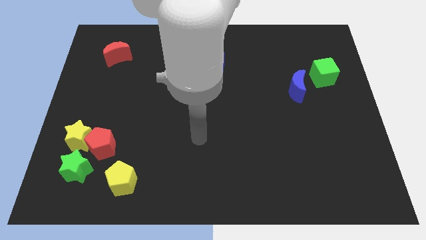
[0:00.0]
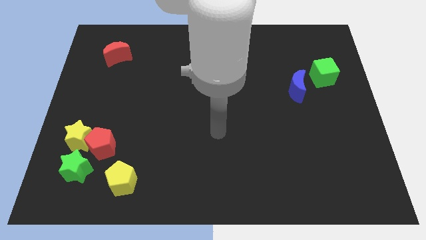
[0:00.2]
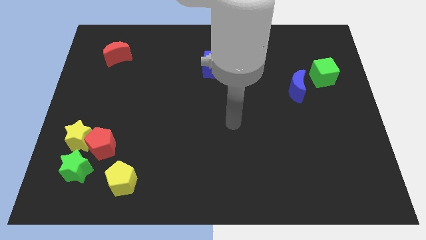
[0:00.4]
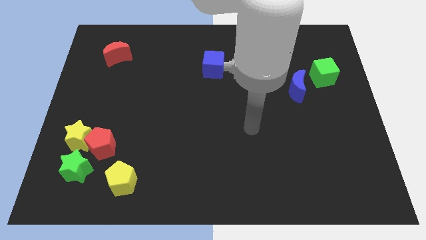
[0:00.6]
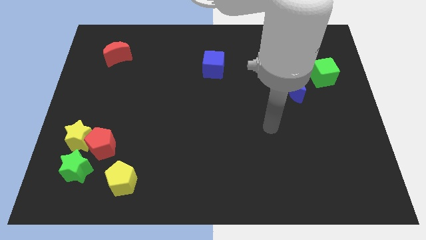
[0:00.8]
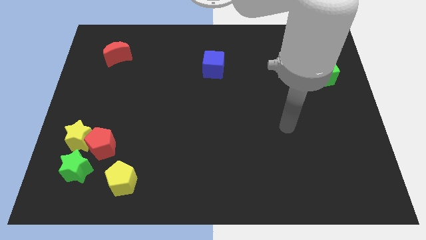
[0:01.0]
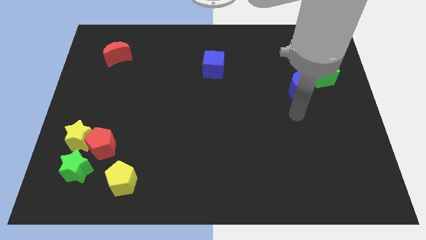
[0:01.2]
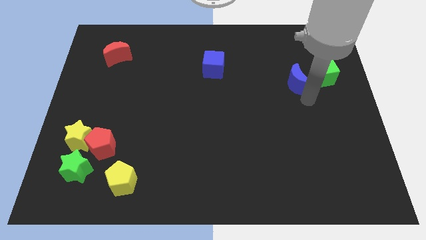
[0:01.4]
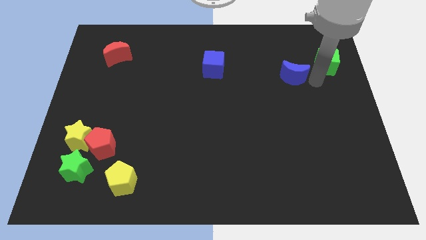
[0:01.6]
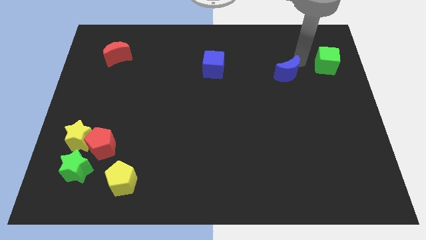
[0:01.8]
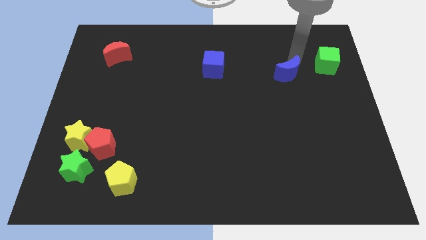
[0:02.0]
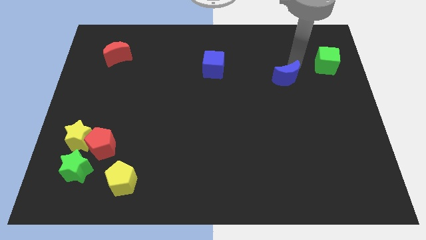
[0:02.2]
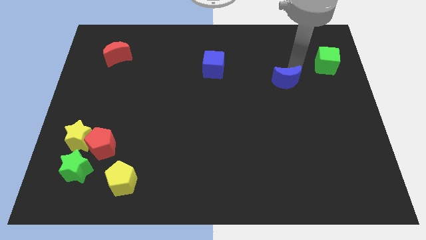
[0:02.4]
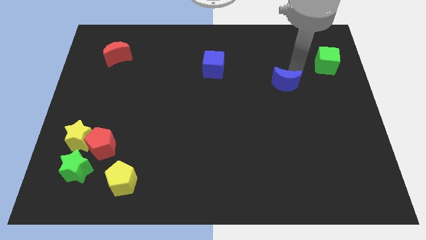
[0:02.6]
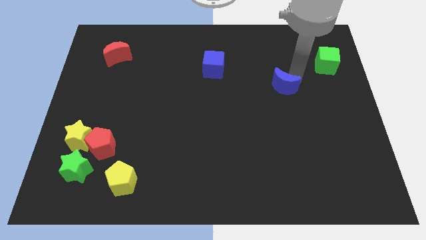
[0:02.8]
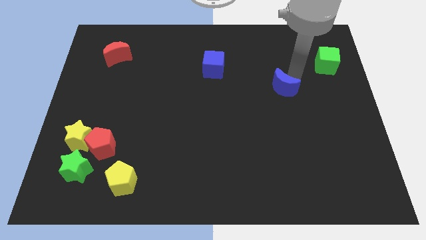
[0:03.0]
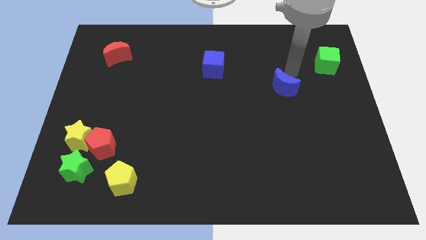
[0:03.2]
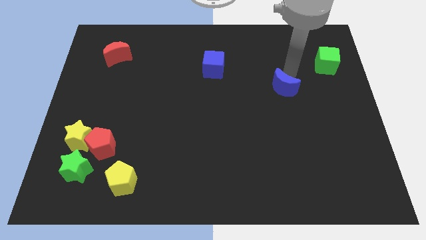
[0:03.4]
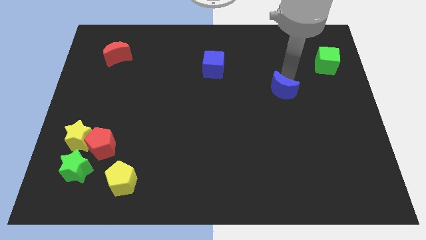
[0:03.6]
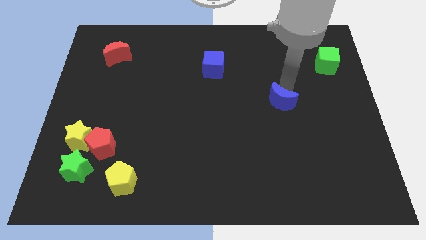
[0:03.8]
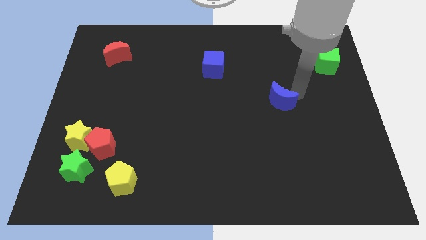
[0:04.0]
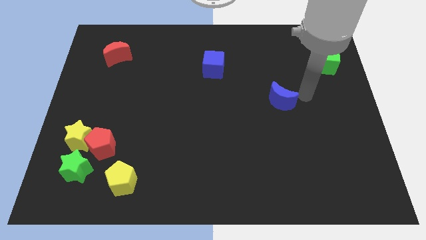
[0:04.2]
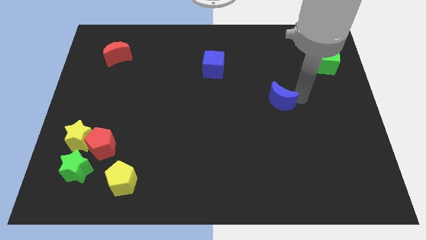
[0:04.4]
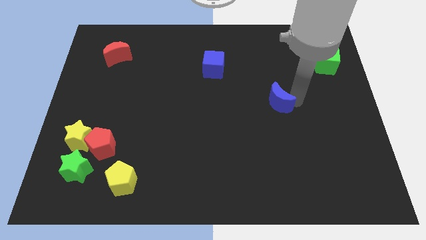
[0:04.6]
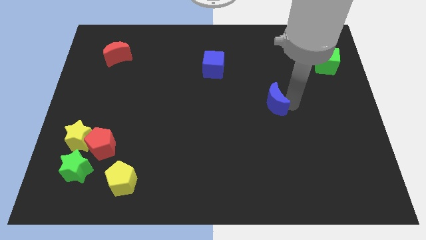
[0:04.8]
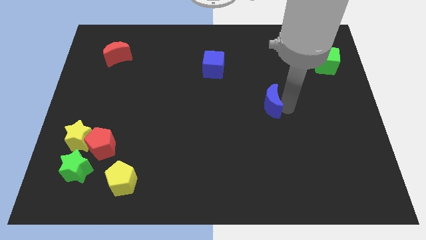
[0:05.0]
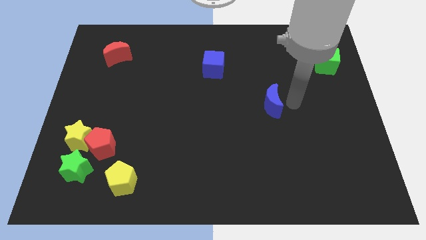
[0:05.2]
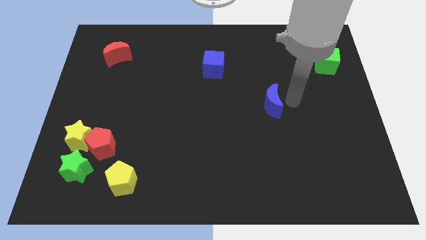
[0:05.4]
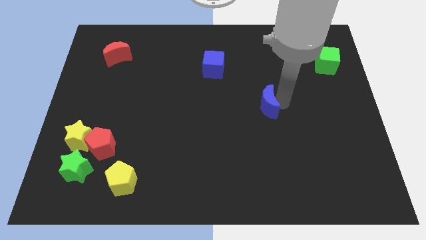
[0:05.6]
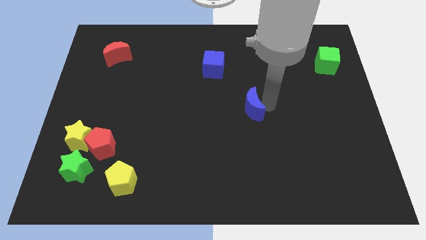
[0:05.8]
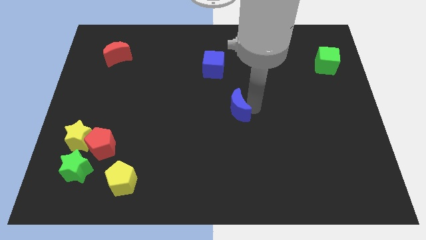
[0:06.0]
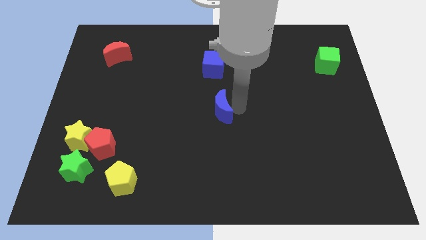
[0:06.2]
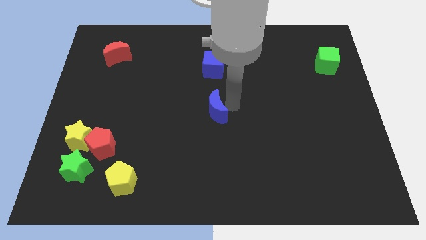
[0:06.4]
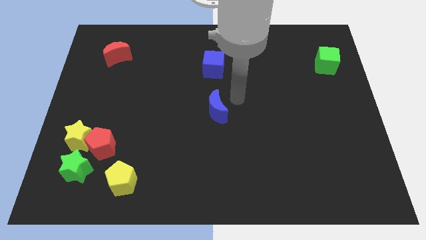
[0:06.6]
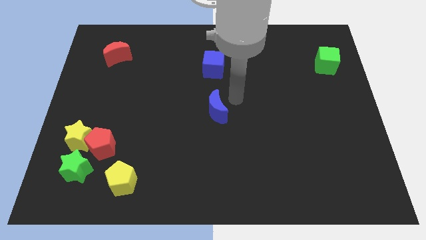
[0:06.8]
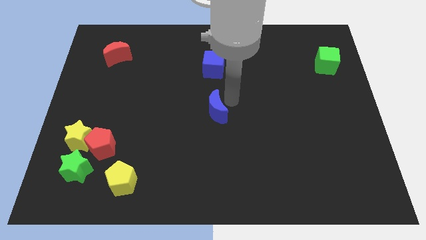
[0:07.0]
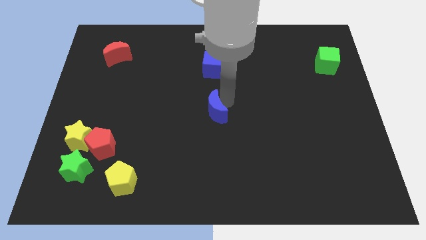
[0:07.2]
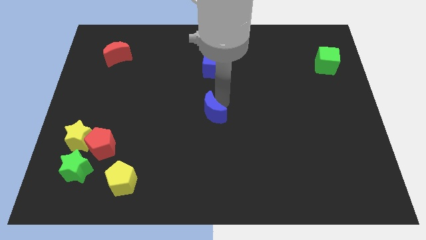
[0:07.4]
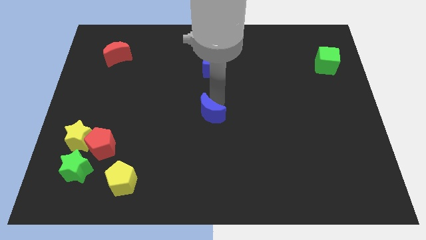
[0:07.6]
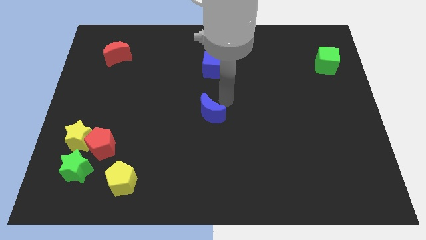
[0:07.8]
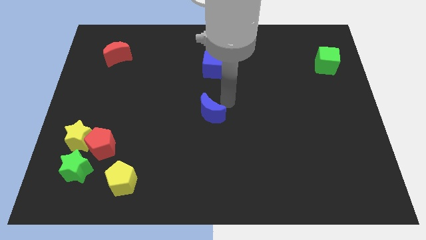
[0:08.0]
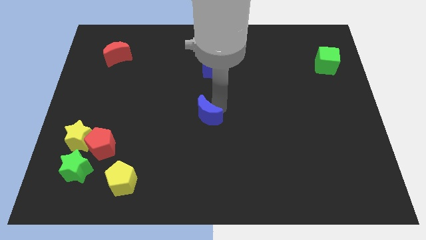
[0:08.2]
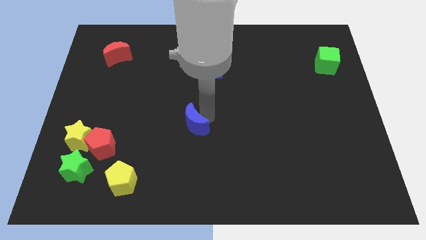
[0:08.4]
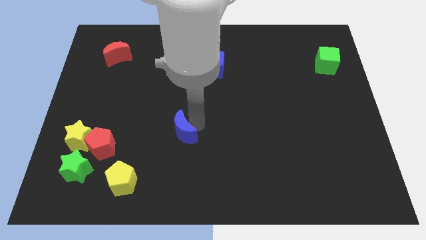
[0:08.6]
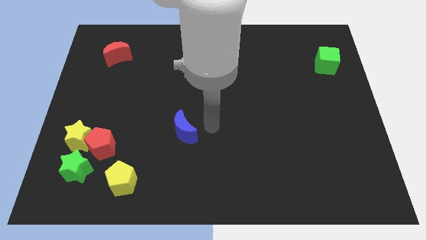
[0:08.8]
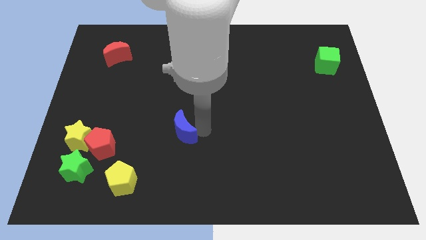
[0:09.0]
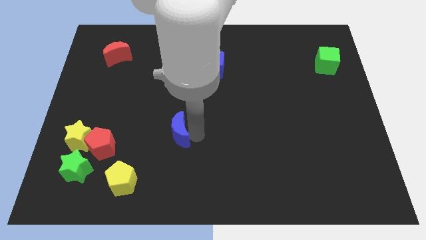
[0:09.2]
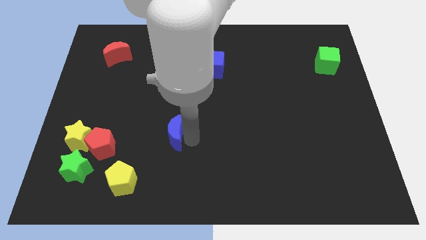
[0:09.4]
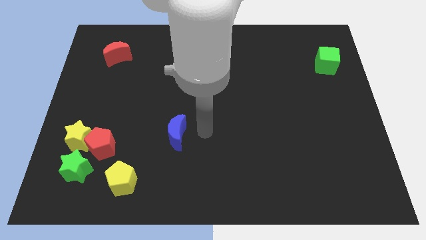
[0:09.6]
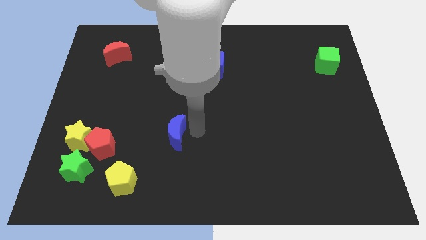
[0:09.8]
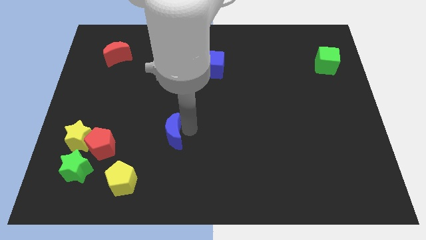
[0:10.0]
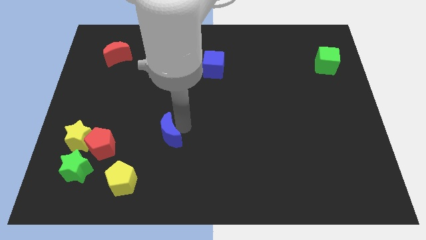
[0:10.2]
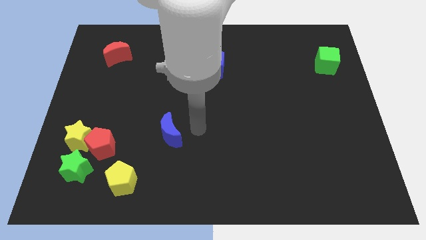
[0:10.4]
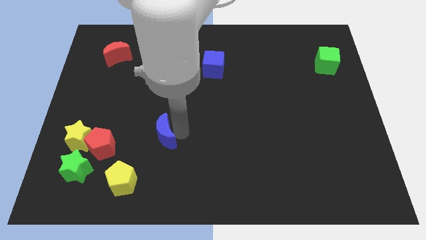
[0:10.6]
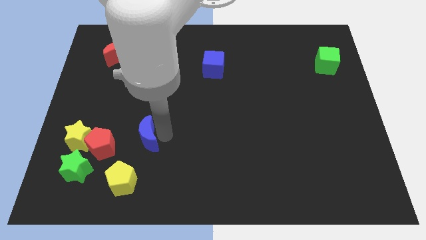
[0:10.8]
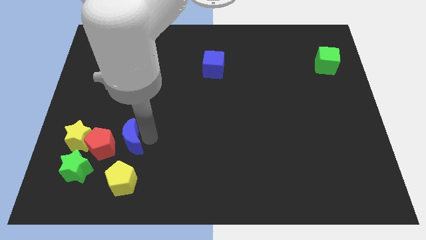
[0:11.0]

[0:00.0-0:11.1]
put the blue moon towards the red pentagon

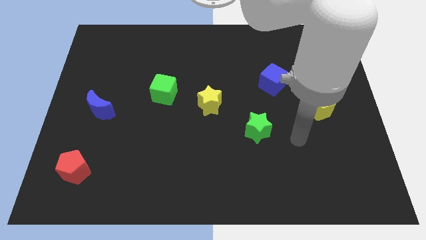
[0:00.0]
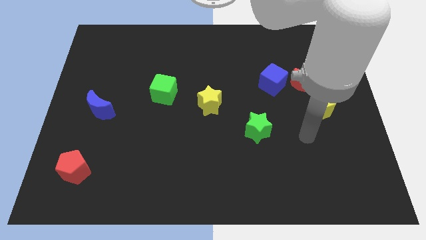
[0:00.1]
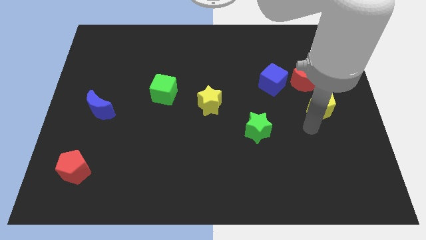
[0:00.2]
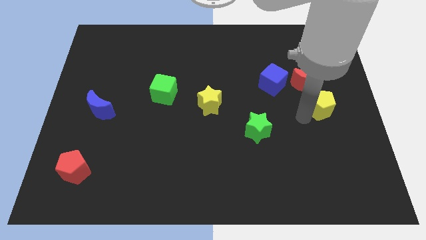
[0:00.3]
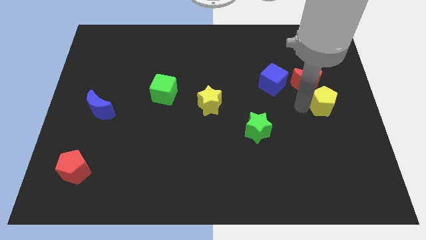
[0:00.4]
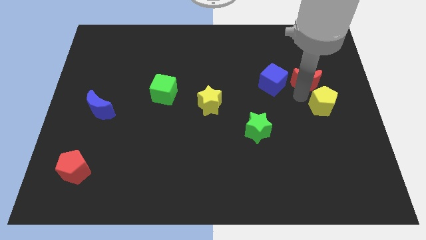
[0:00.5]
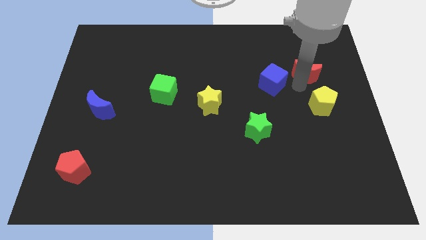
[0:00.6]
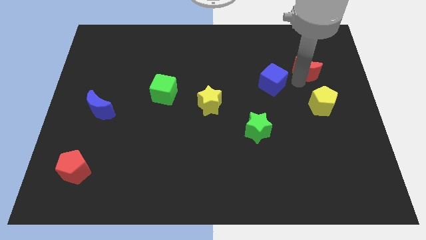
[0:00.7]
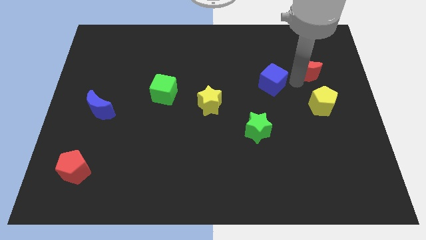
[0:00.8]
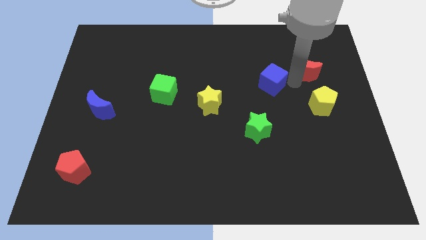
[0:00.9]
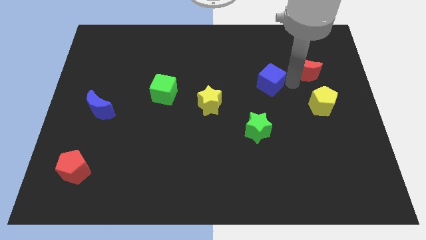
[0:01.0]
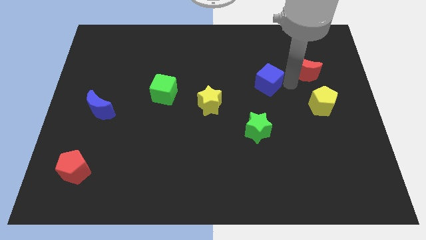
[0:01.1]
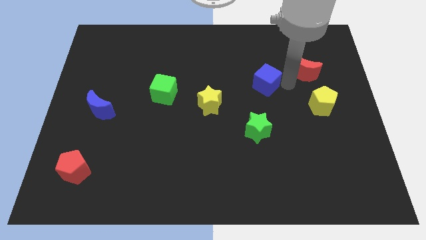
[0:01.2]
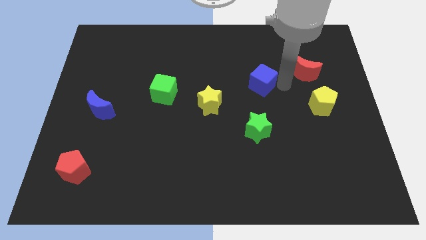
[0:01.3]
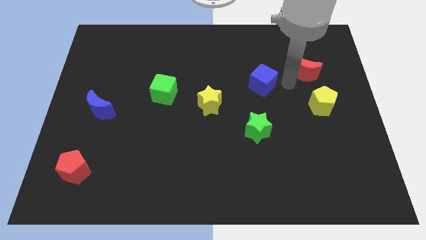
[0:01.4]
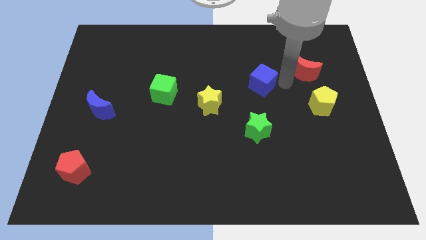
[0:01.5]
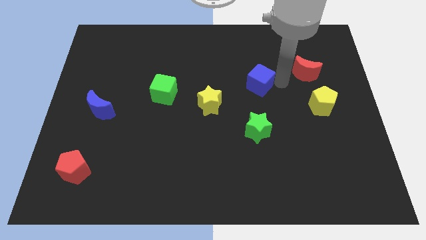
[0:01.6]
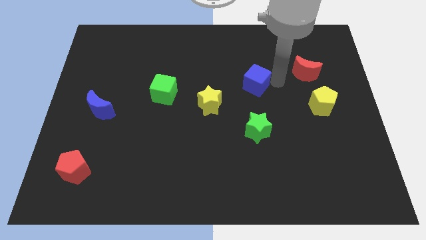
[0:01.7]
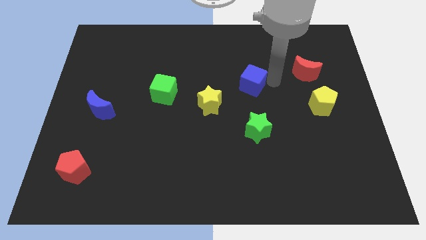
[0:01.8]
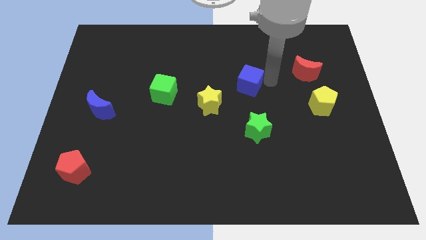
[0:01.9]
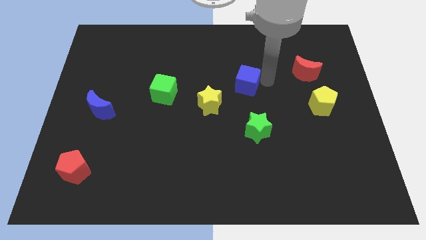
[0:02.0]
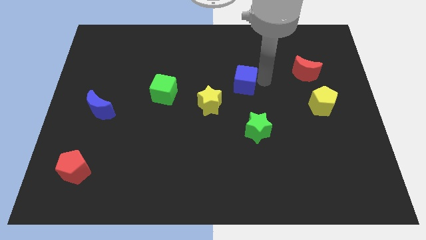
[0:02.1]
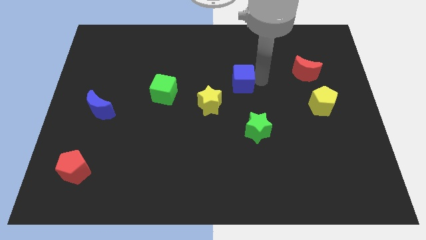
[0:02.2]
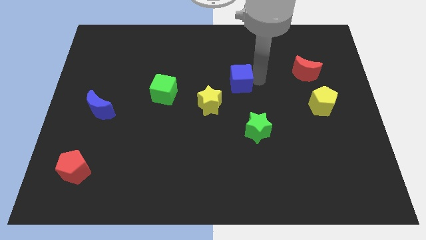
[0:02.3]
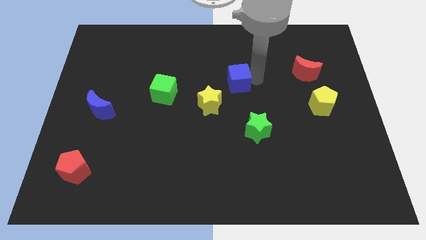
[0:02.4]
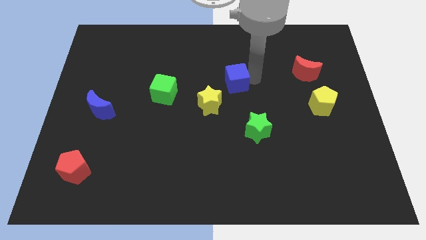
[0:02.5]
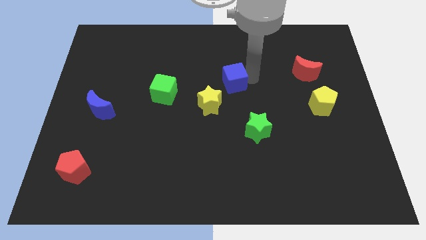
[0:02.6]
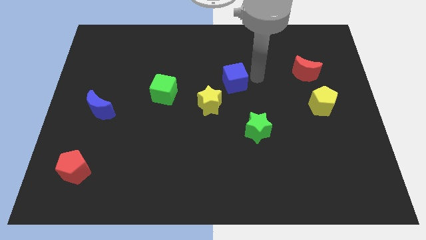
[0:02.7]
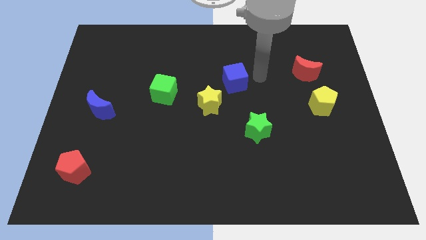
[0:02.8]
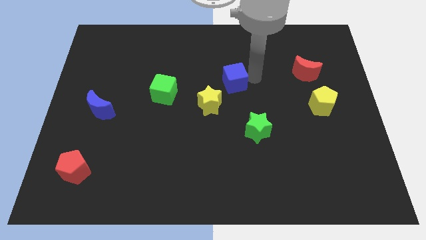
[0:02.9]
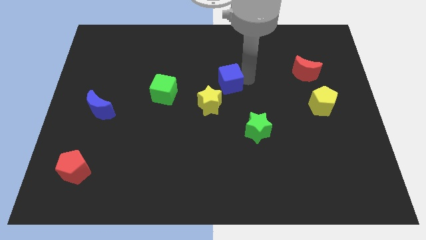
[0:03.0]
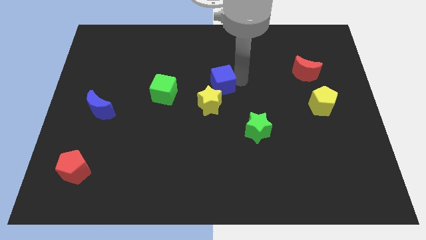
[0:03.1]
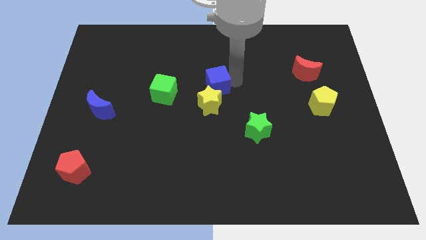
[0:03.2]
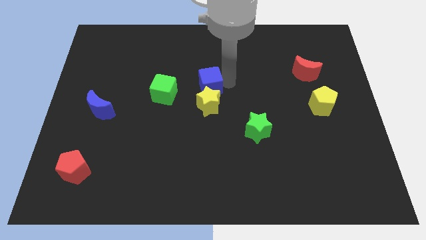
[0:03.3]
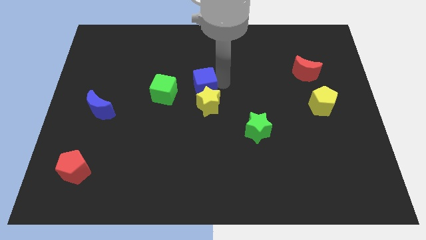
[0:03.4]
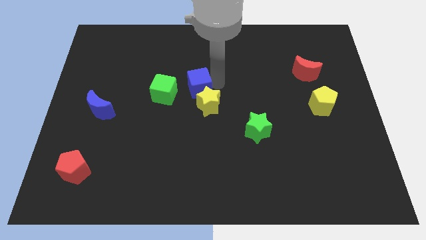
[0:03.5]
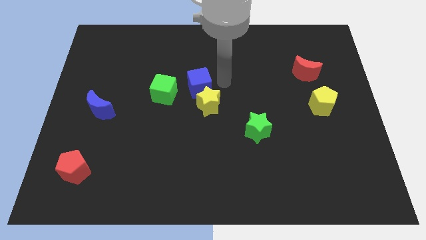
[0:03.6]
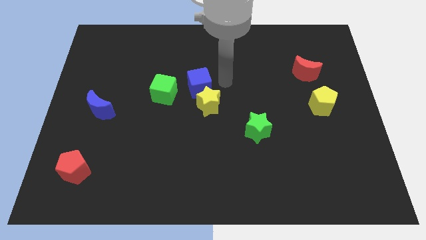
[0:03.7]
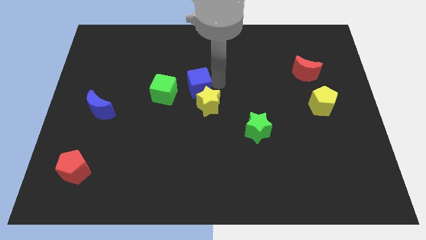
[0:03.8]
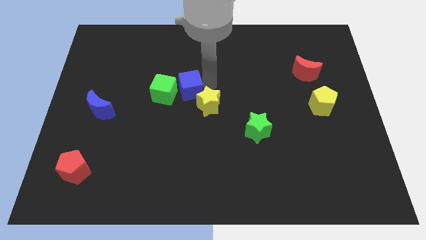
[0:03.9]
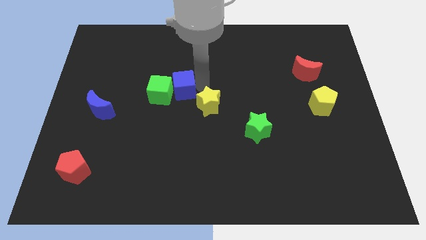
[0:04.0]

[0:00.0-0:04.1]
push the blue cube to the green cube
